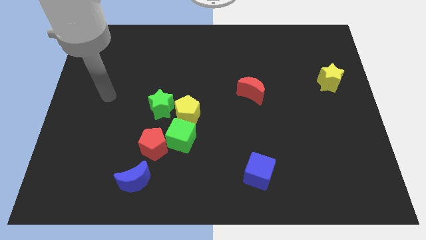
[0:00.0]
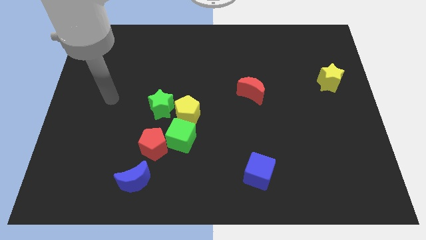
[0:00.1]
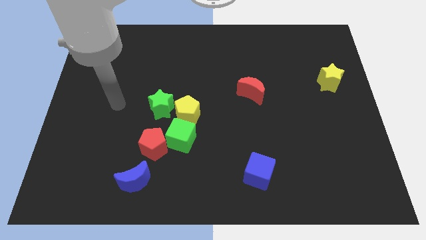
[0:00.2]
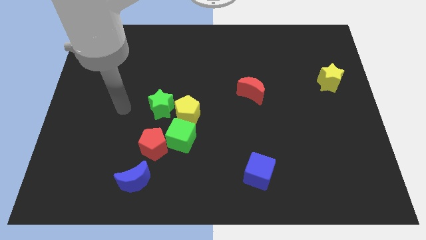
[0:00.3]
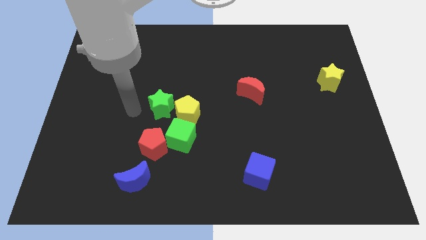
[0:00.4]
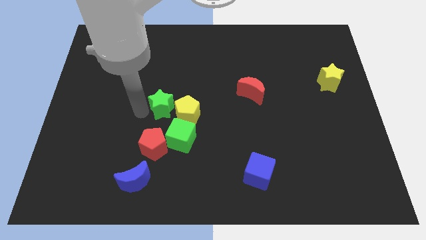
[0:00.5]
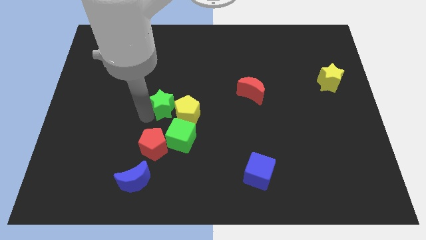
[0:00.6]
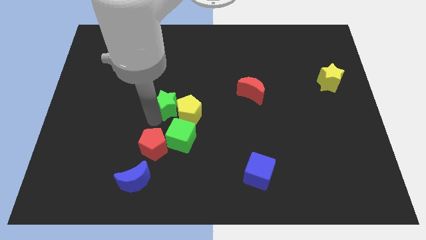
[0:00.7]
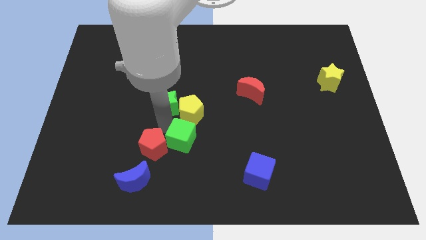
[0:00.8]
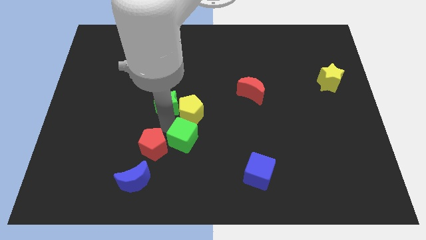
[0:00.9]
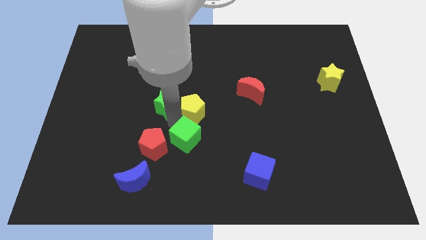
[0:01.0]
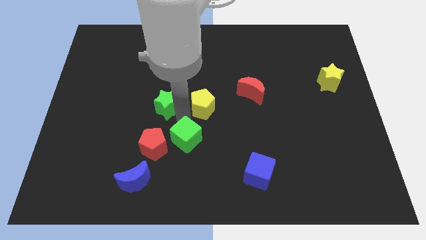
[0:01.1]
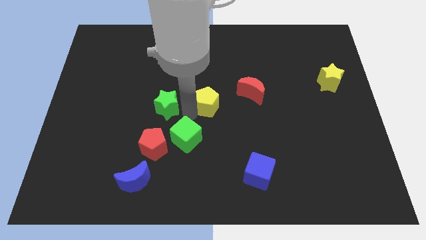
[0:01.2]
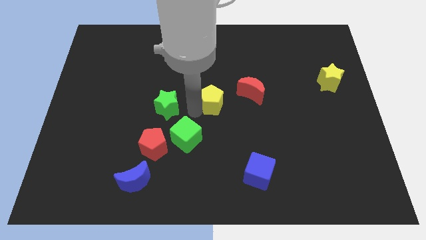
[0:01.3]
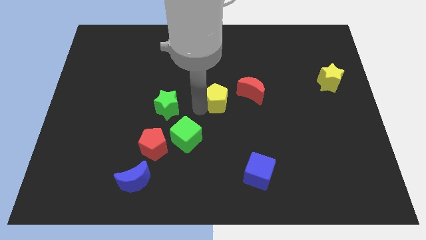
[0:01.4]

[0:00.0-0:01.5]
separate the yellow pentagon from the green star and green cube

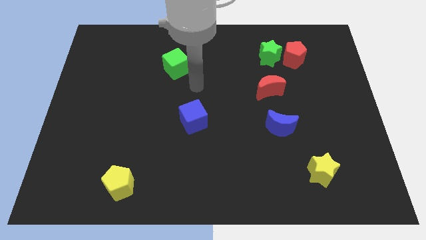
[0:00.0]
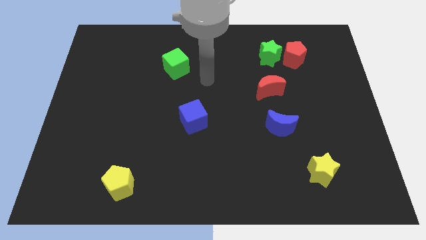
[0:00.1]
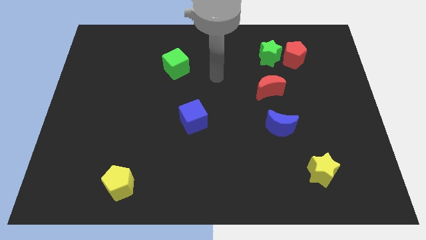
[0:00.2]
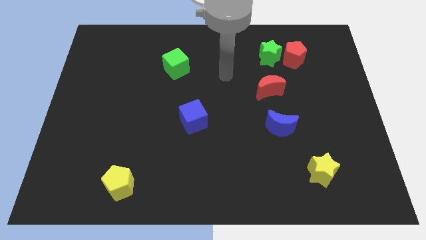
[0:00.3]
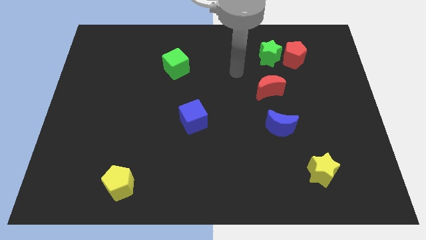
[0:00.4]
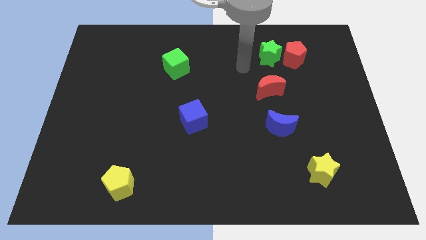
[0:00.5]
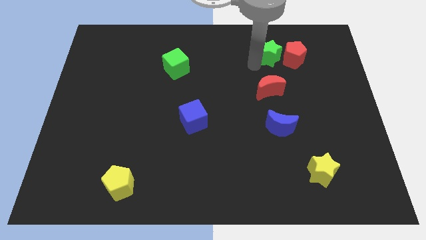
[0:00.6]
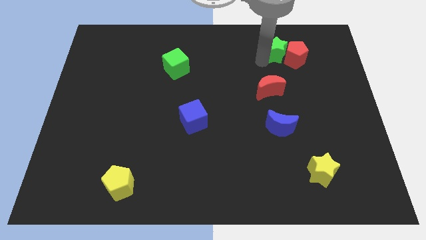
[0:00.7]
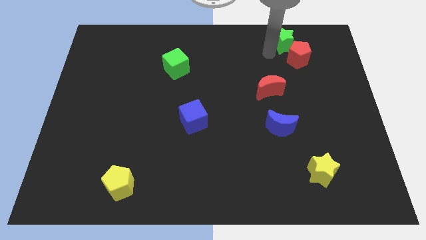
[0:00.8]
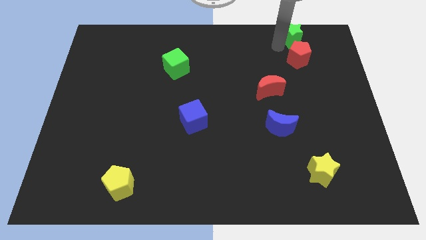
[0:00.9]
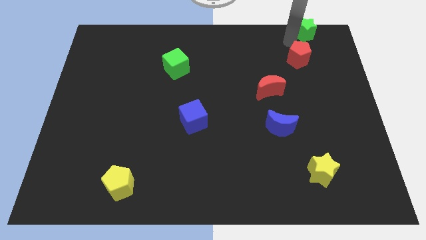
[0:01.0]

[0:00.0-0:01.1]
separate the red pentagon from the green star

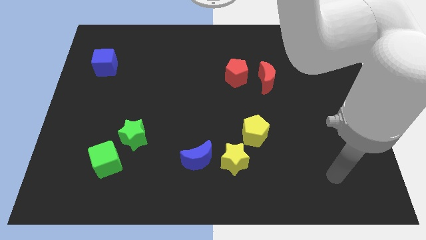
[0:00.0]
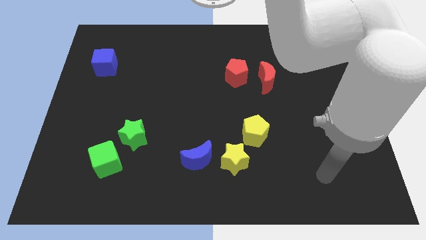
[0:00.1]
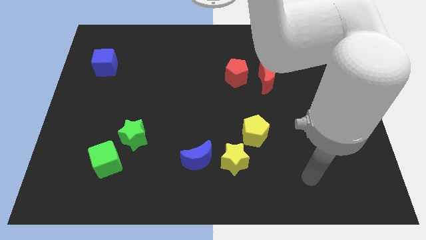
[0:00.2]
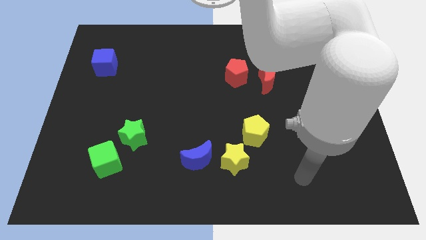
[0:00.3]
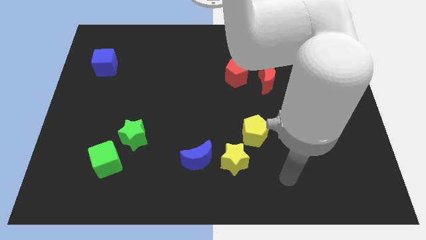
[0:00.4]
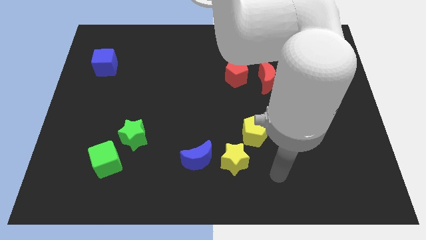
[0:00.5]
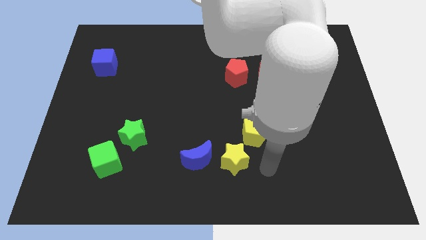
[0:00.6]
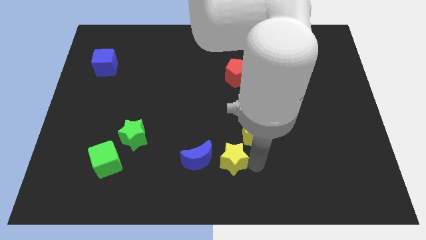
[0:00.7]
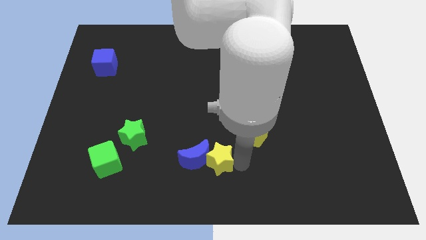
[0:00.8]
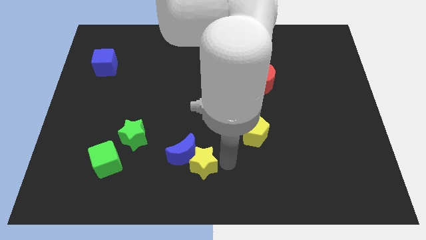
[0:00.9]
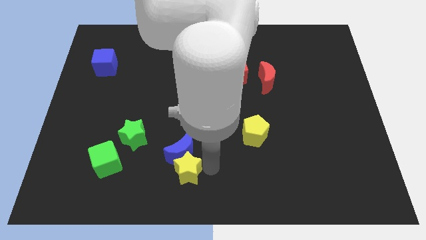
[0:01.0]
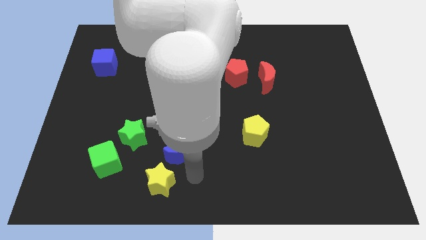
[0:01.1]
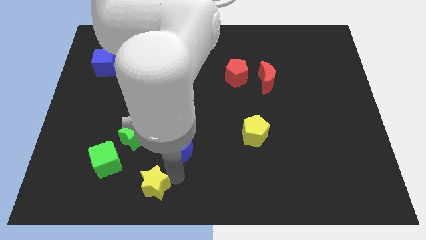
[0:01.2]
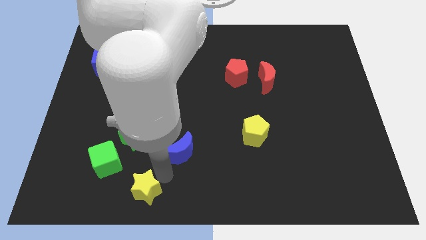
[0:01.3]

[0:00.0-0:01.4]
move the blue moon away from the yellow star

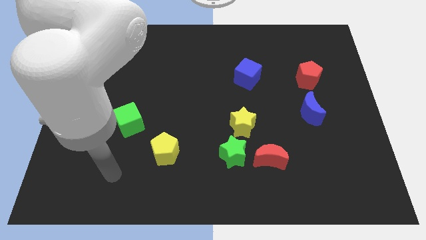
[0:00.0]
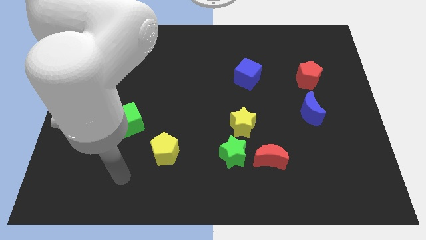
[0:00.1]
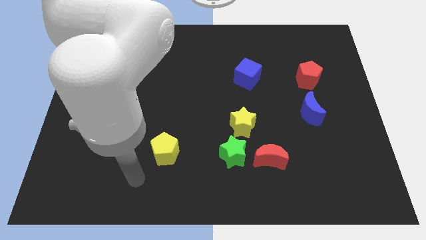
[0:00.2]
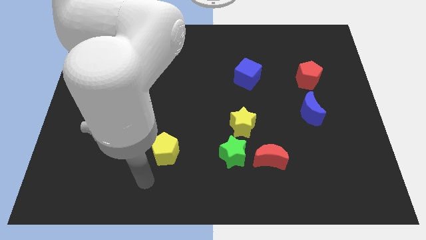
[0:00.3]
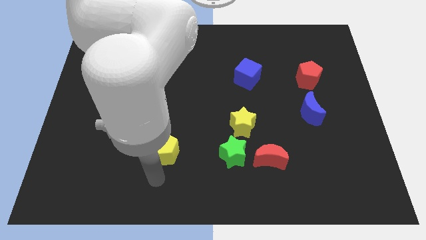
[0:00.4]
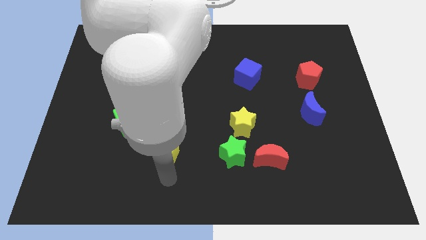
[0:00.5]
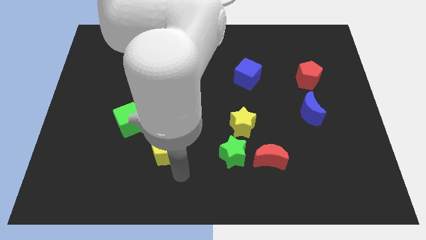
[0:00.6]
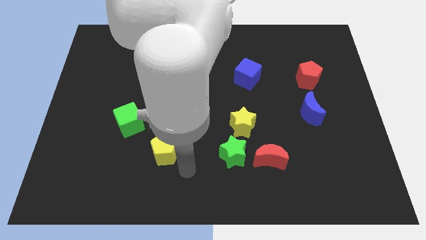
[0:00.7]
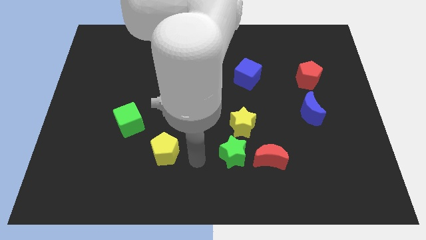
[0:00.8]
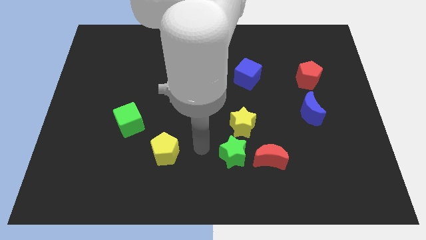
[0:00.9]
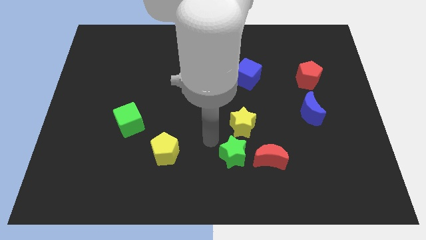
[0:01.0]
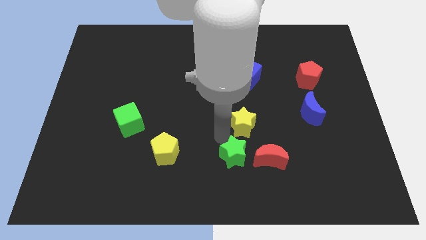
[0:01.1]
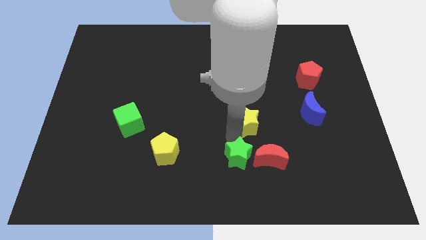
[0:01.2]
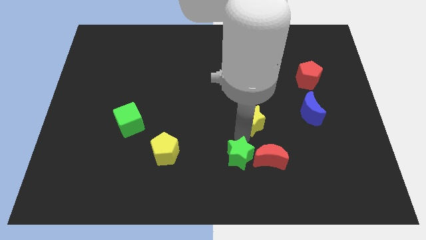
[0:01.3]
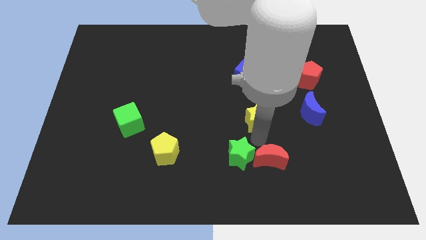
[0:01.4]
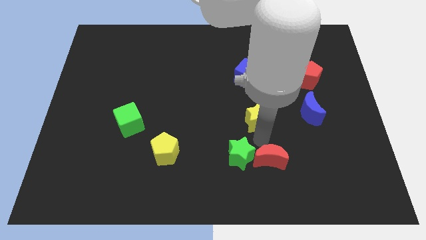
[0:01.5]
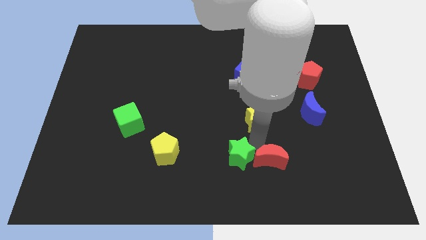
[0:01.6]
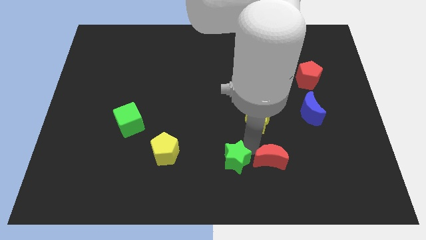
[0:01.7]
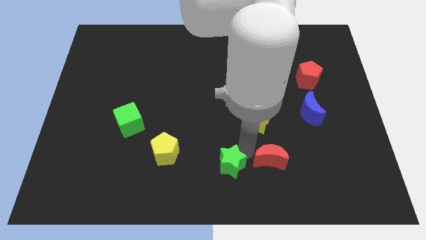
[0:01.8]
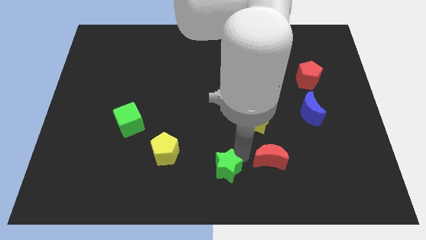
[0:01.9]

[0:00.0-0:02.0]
move the green star away from the red moon and yellow star

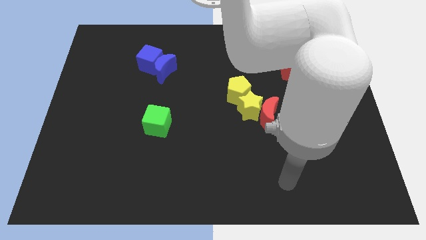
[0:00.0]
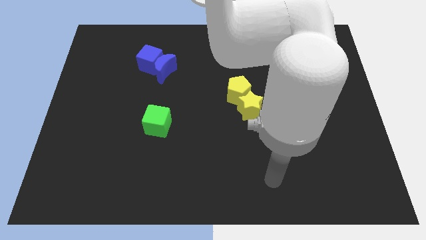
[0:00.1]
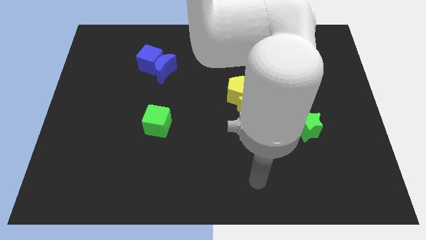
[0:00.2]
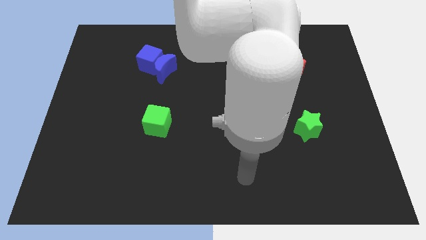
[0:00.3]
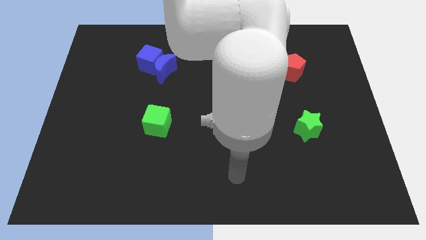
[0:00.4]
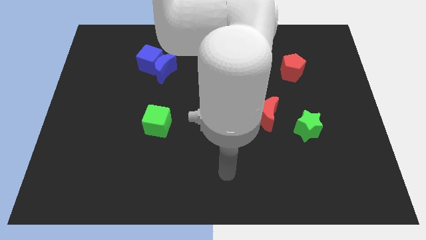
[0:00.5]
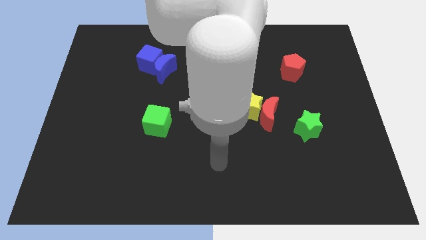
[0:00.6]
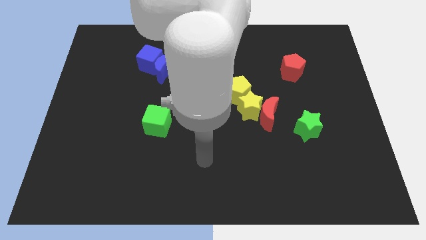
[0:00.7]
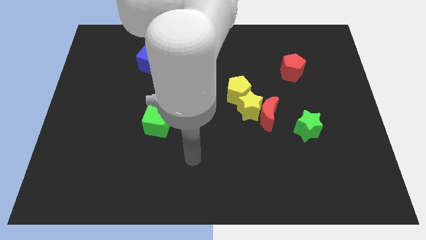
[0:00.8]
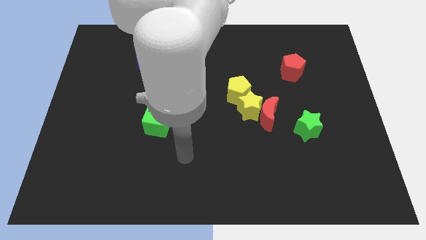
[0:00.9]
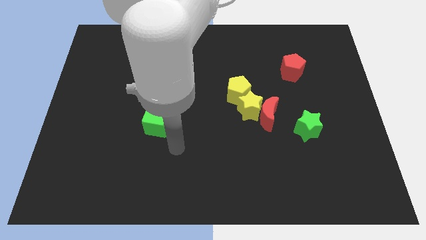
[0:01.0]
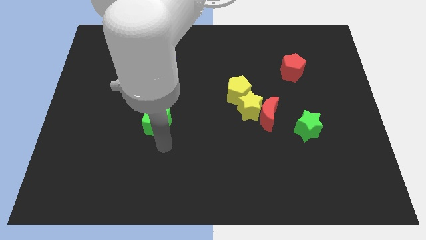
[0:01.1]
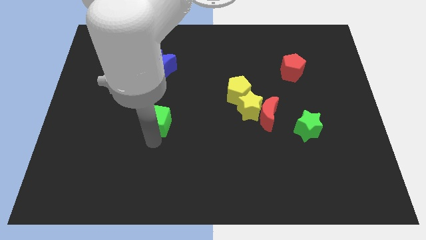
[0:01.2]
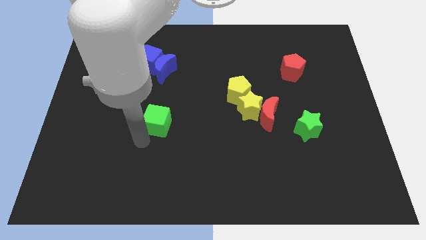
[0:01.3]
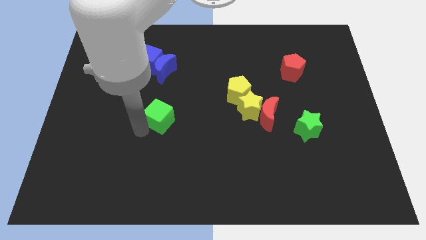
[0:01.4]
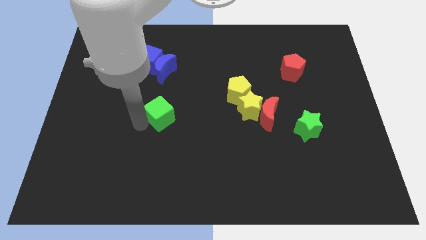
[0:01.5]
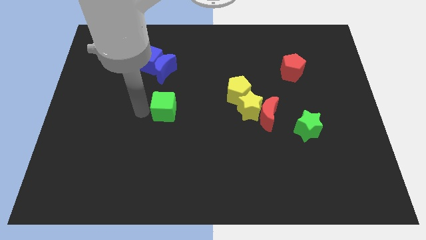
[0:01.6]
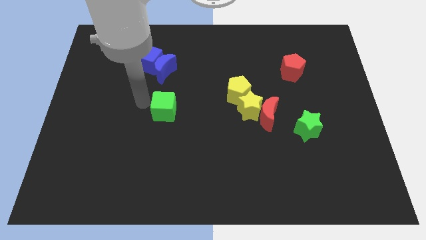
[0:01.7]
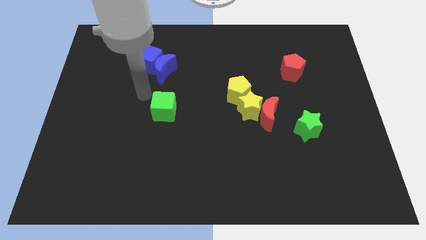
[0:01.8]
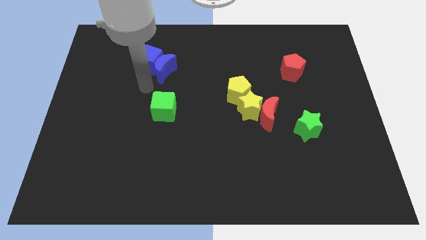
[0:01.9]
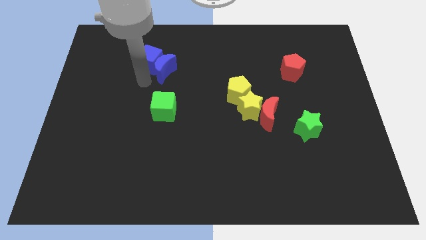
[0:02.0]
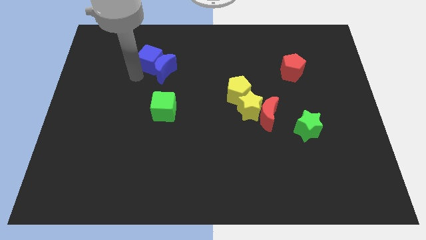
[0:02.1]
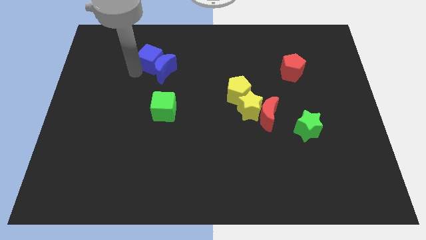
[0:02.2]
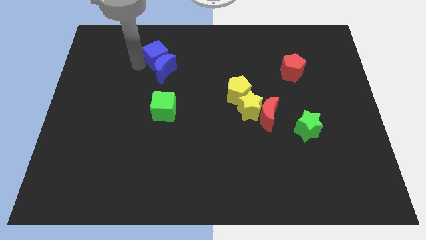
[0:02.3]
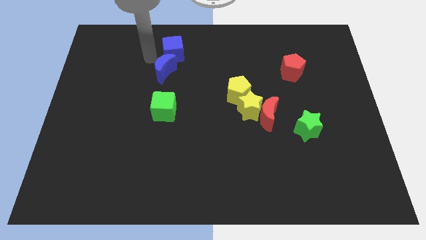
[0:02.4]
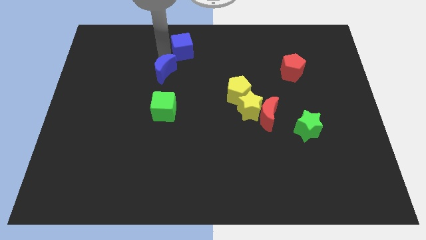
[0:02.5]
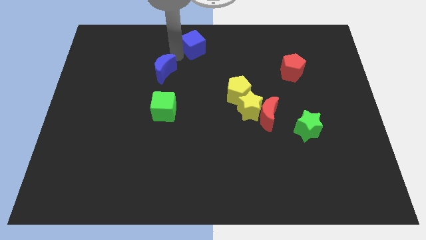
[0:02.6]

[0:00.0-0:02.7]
move the blue moon away from the blue cube

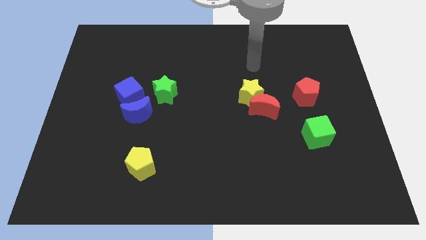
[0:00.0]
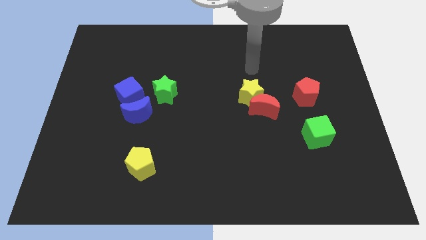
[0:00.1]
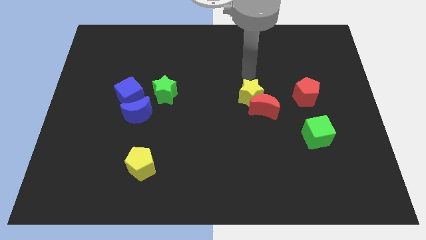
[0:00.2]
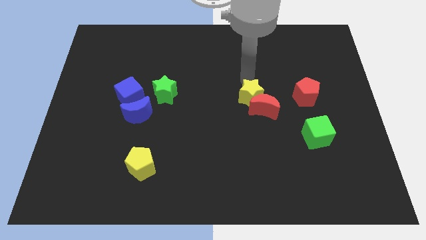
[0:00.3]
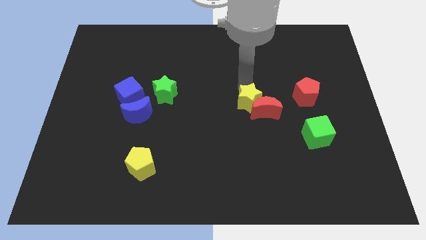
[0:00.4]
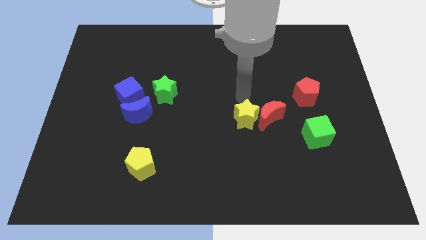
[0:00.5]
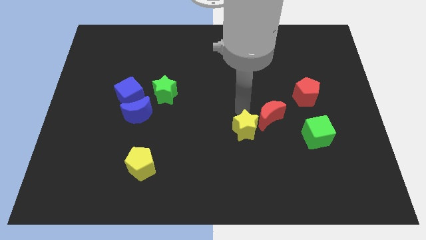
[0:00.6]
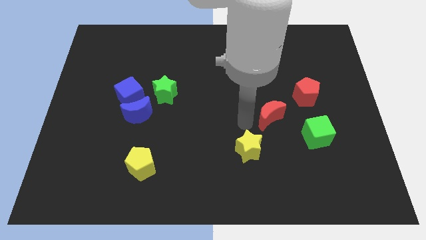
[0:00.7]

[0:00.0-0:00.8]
pull the red moon apart from the yellow star
